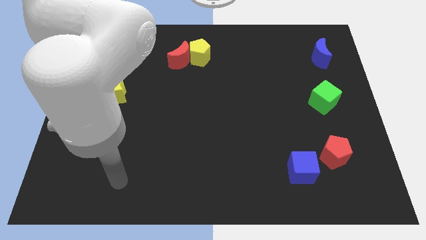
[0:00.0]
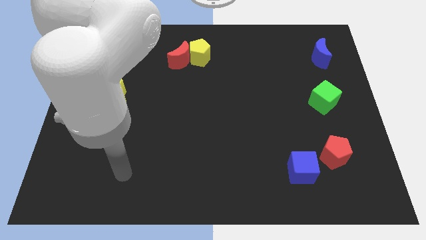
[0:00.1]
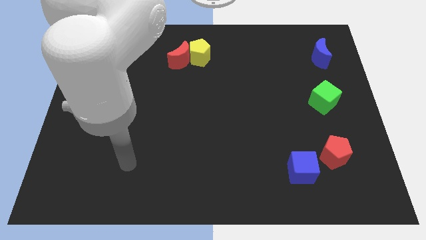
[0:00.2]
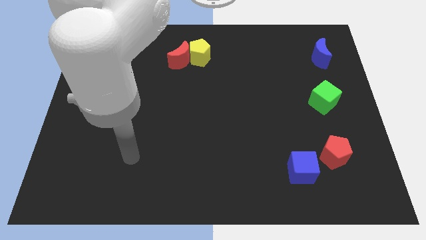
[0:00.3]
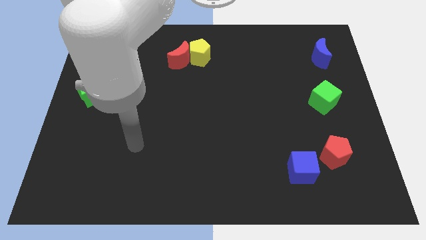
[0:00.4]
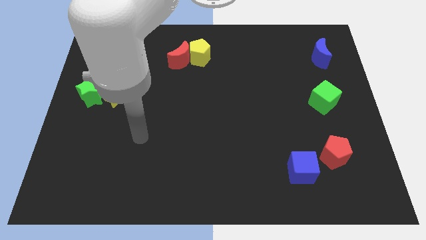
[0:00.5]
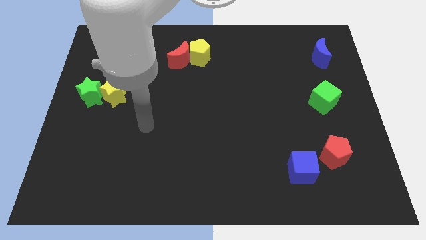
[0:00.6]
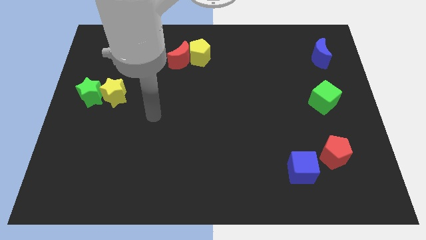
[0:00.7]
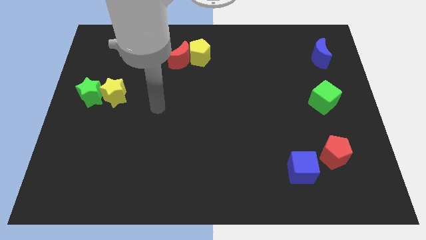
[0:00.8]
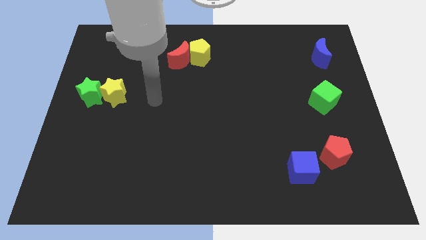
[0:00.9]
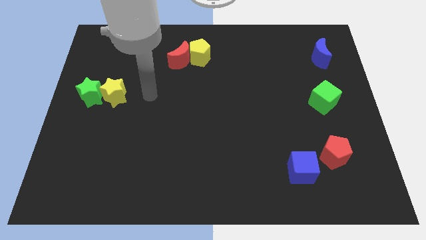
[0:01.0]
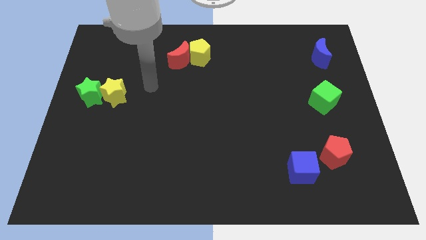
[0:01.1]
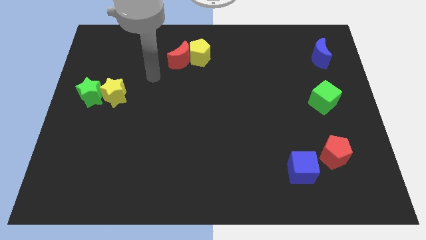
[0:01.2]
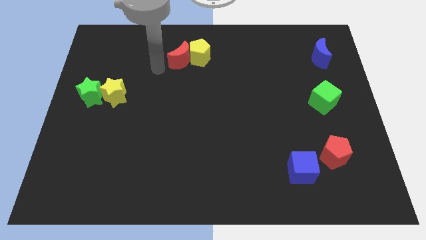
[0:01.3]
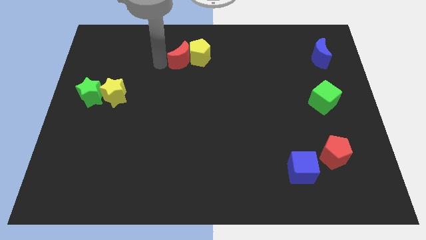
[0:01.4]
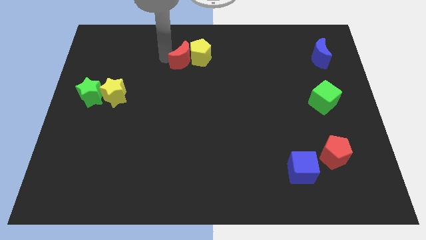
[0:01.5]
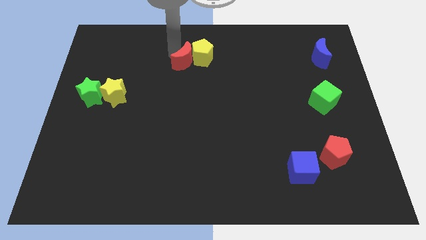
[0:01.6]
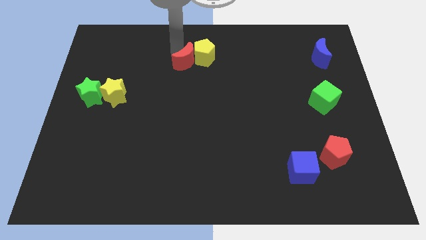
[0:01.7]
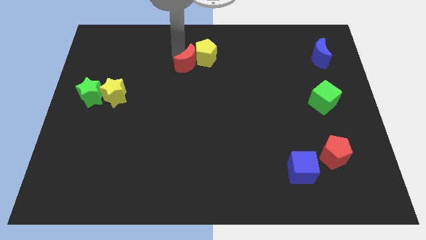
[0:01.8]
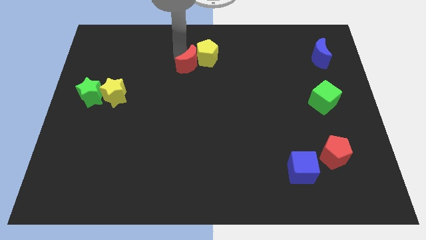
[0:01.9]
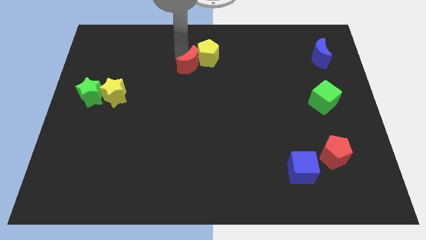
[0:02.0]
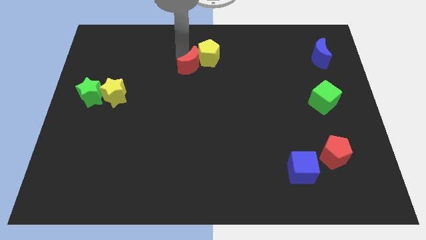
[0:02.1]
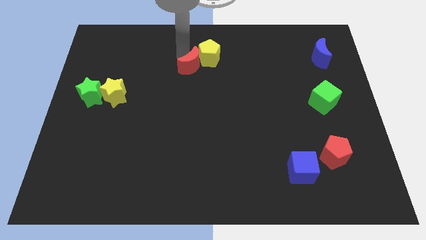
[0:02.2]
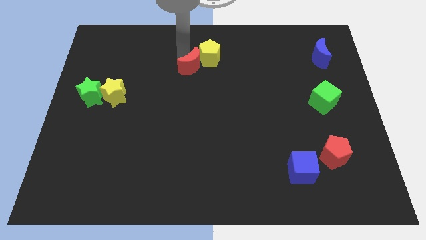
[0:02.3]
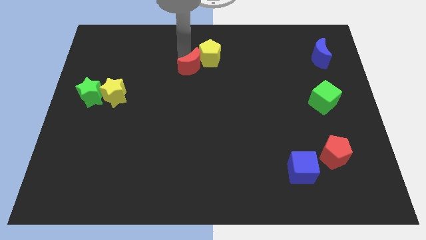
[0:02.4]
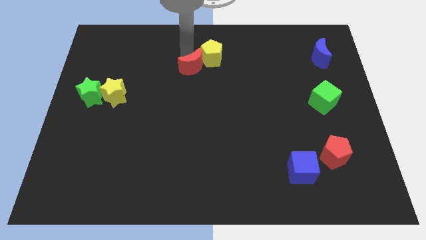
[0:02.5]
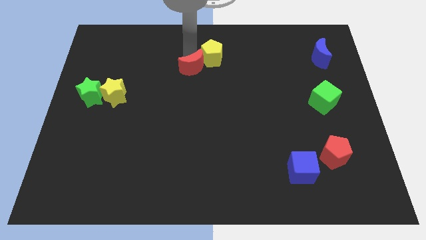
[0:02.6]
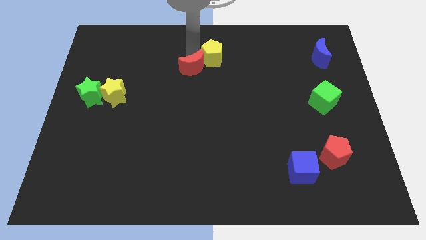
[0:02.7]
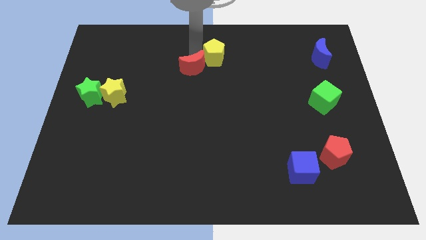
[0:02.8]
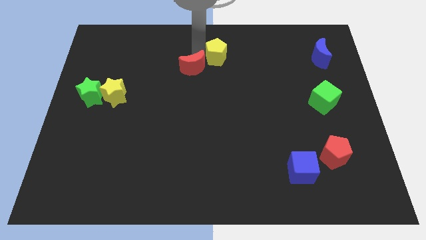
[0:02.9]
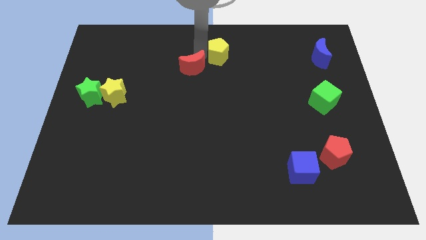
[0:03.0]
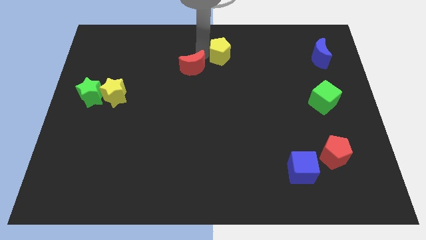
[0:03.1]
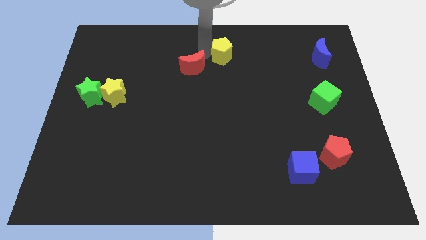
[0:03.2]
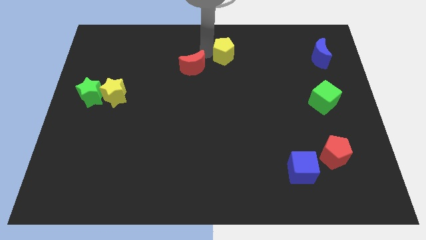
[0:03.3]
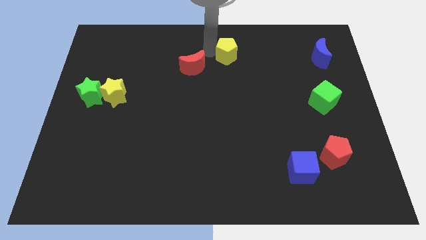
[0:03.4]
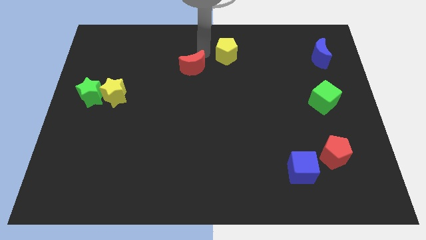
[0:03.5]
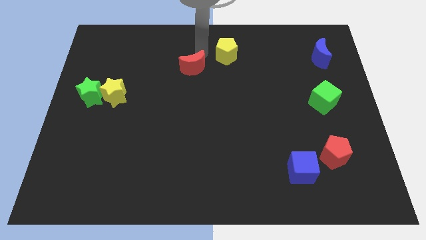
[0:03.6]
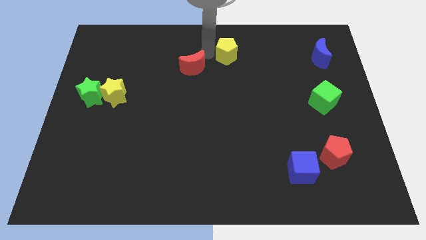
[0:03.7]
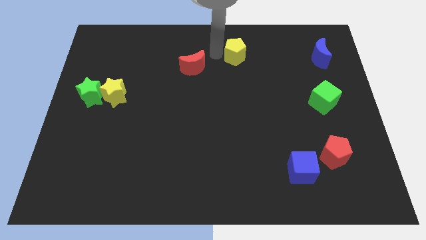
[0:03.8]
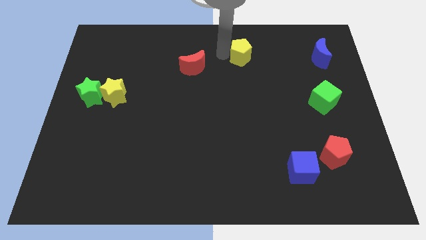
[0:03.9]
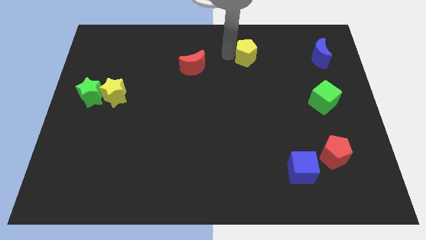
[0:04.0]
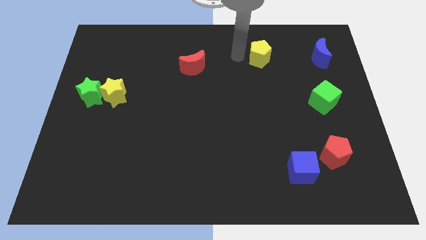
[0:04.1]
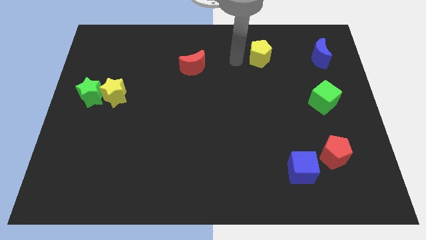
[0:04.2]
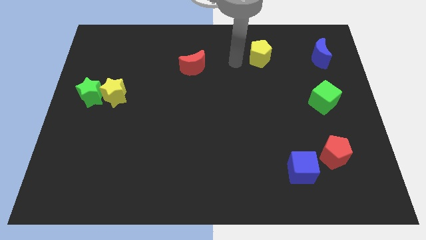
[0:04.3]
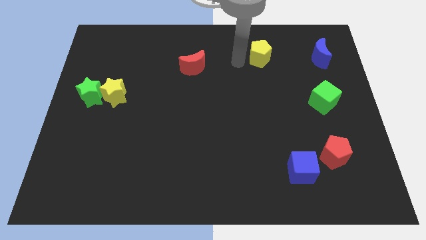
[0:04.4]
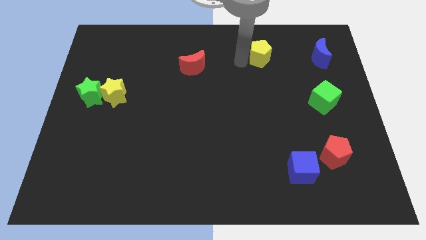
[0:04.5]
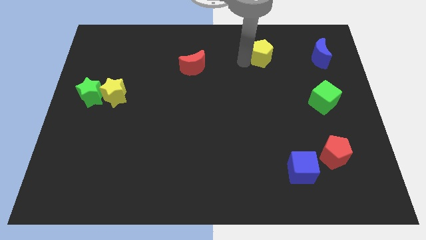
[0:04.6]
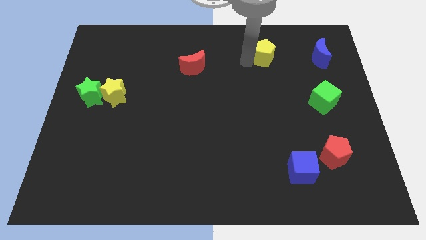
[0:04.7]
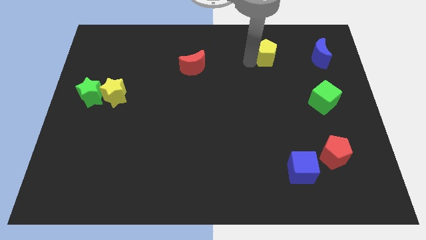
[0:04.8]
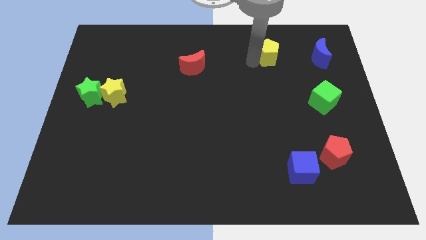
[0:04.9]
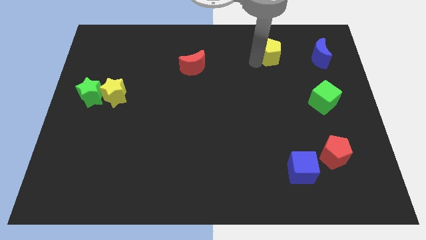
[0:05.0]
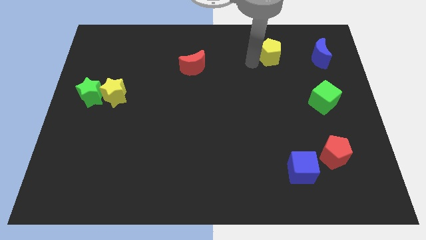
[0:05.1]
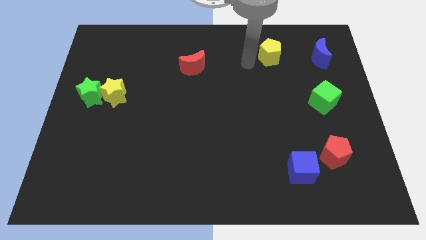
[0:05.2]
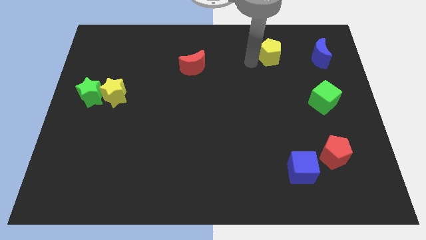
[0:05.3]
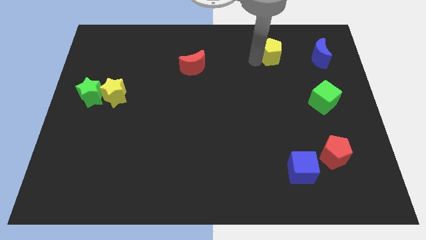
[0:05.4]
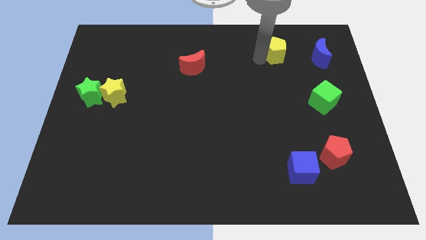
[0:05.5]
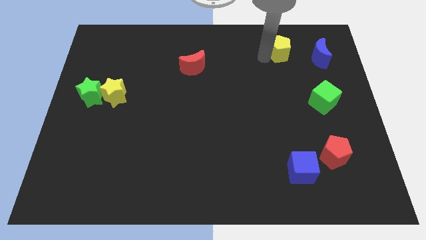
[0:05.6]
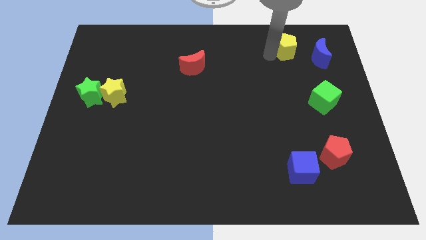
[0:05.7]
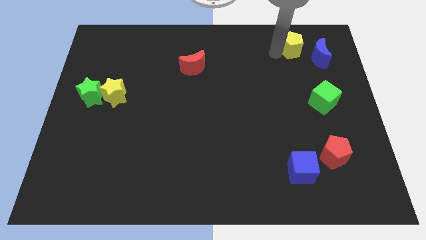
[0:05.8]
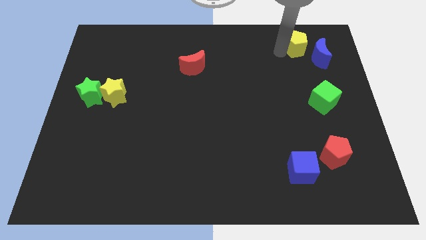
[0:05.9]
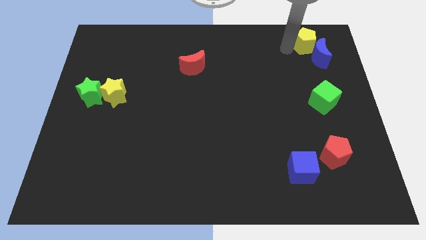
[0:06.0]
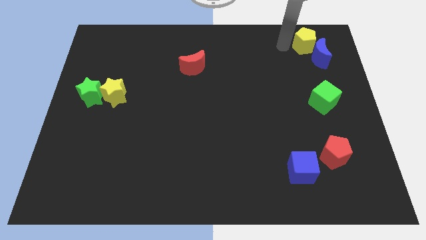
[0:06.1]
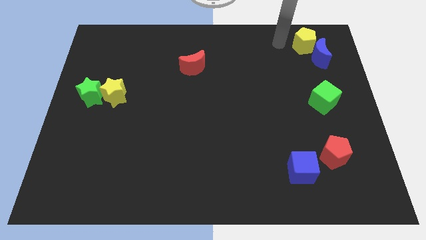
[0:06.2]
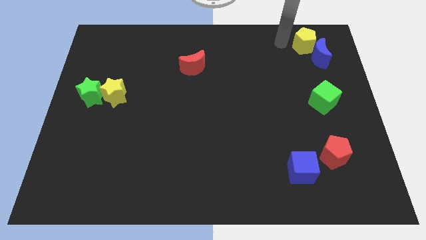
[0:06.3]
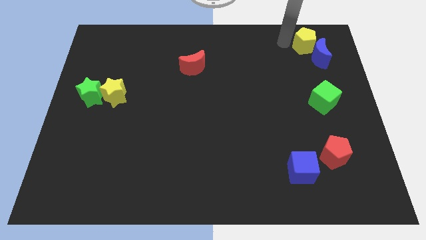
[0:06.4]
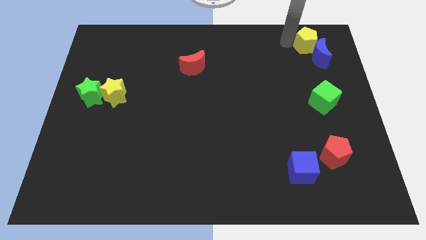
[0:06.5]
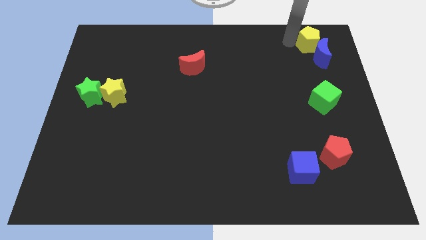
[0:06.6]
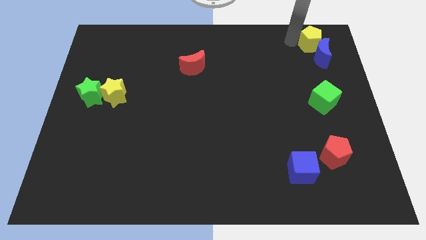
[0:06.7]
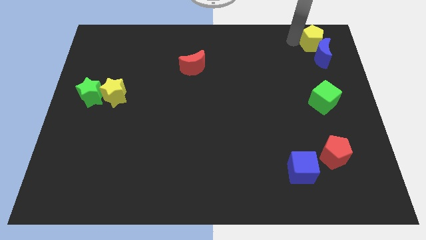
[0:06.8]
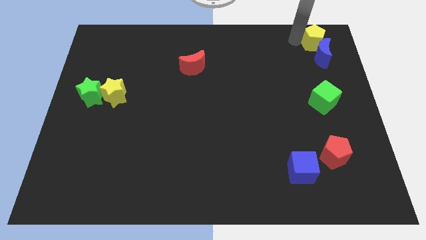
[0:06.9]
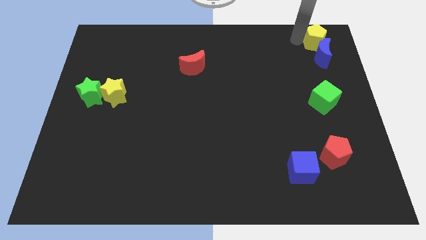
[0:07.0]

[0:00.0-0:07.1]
put the yellow pentagon to the upper right corner
